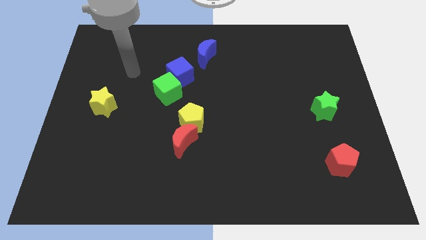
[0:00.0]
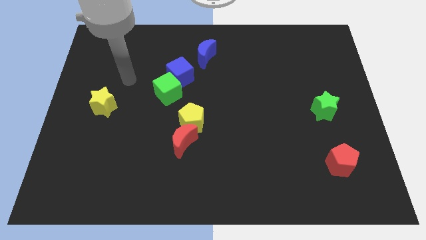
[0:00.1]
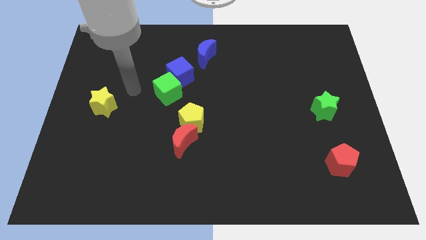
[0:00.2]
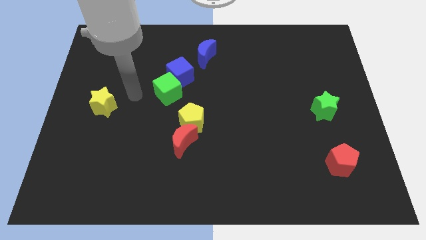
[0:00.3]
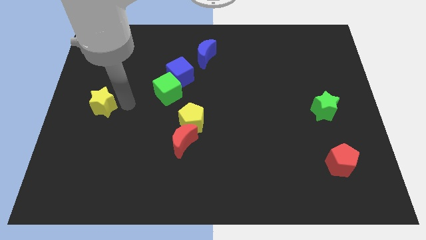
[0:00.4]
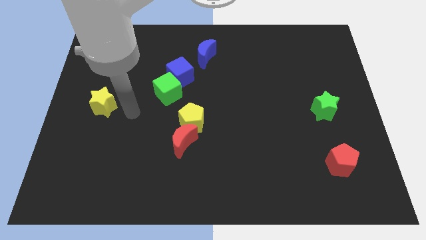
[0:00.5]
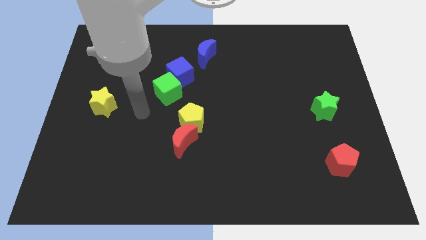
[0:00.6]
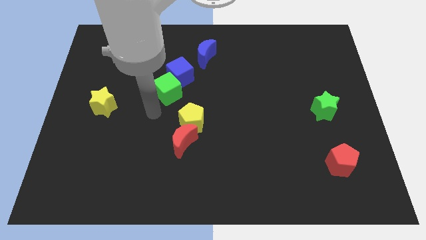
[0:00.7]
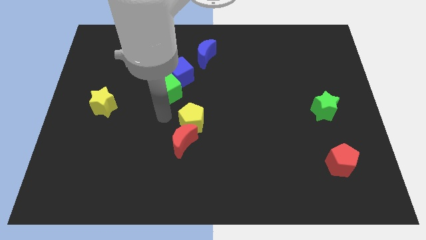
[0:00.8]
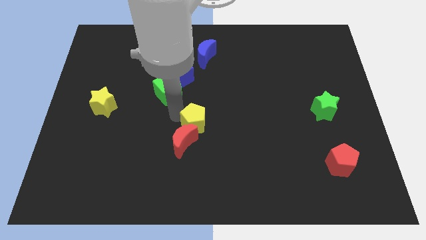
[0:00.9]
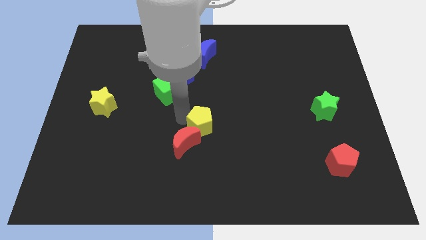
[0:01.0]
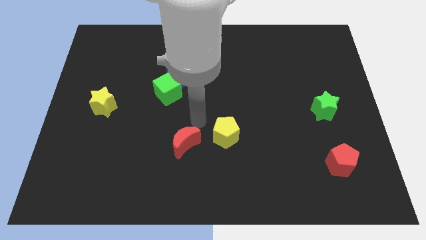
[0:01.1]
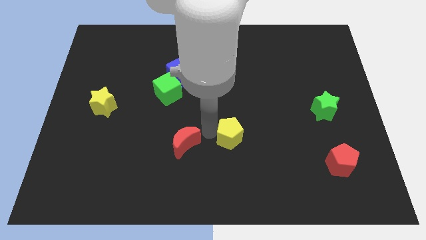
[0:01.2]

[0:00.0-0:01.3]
pull the red moon apart from the yellow pentagon

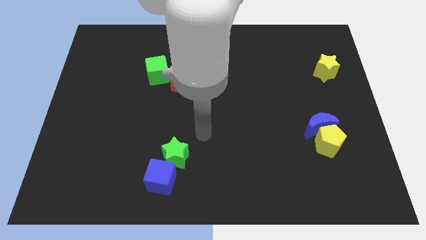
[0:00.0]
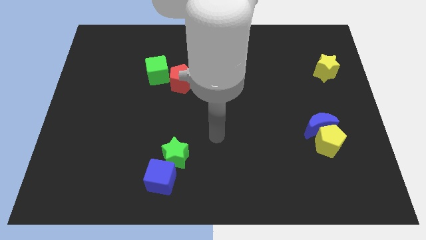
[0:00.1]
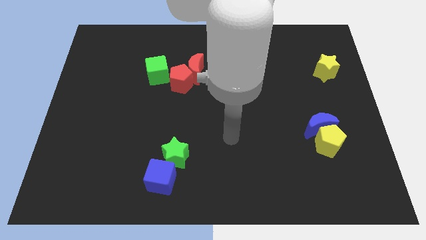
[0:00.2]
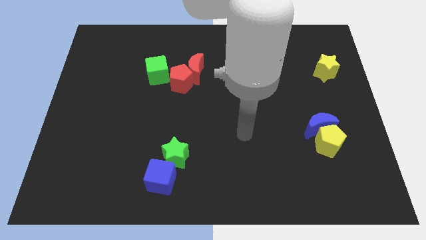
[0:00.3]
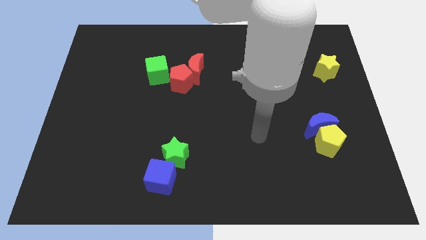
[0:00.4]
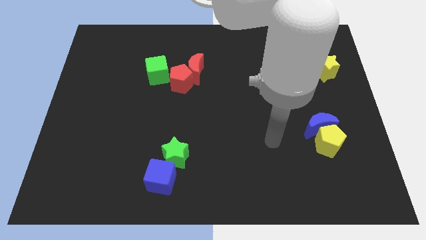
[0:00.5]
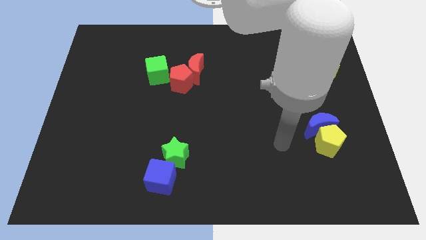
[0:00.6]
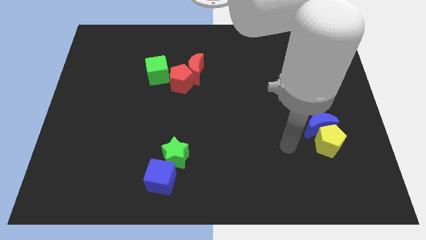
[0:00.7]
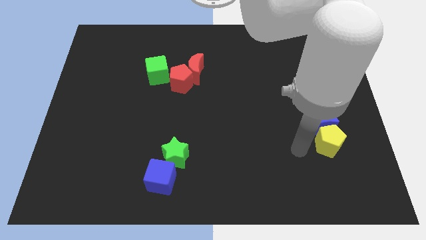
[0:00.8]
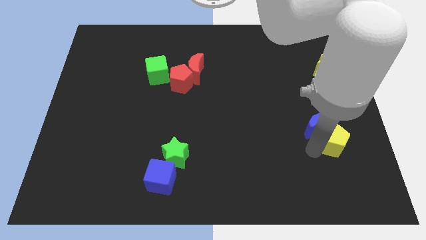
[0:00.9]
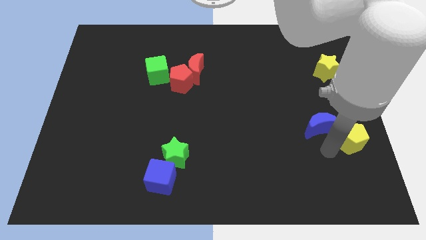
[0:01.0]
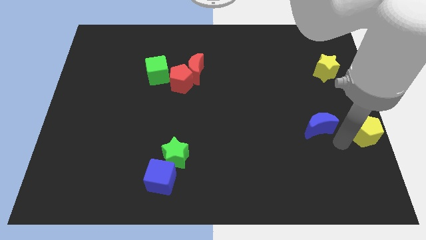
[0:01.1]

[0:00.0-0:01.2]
separate the blue moon from the yellow pentagon

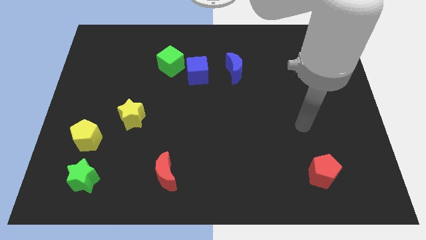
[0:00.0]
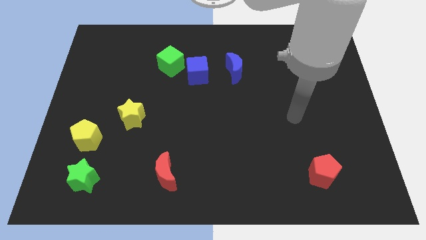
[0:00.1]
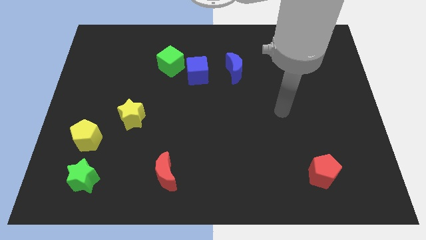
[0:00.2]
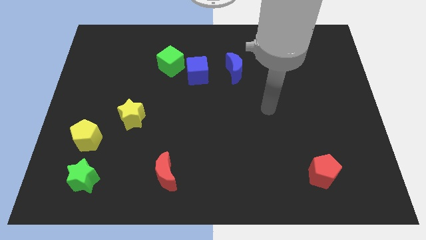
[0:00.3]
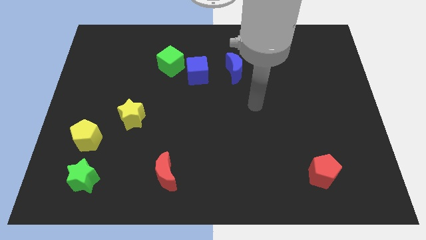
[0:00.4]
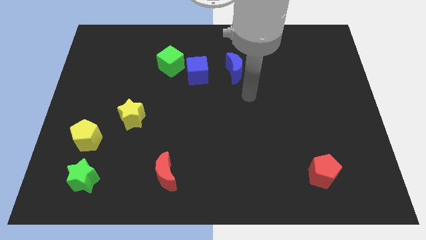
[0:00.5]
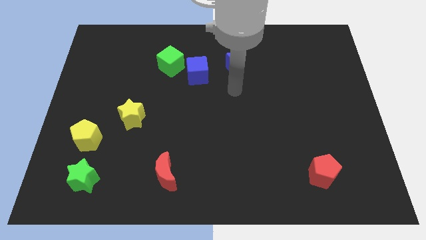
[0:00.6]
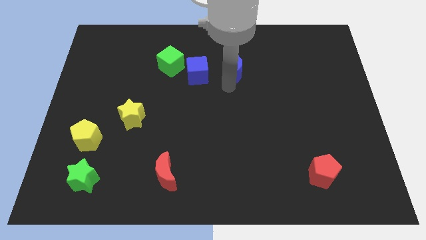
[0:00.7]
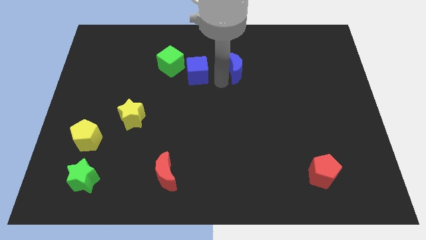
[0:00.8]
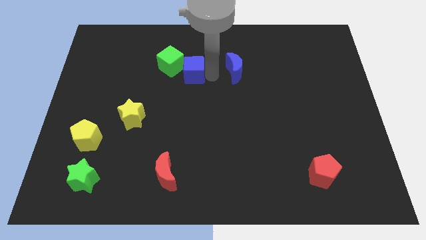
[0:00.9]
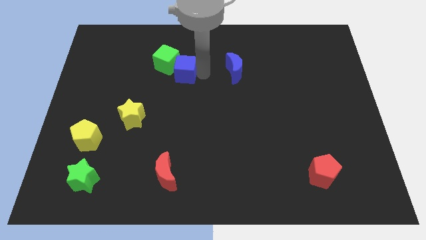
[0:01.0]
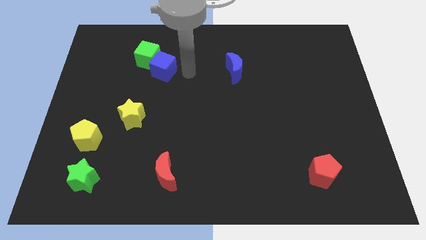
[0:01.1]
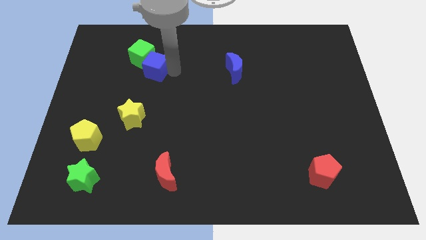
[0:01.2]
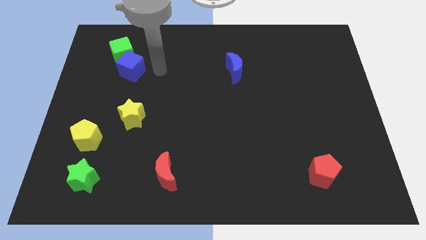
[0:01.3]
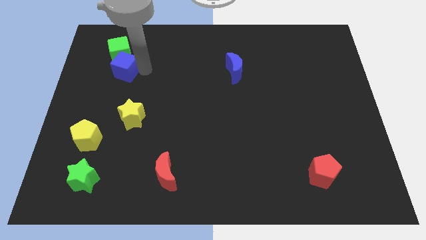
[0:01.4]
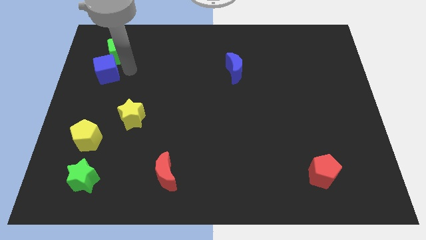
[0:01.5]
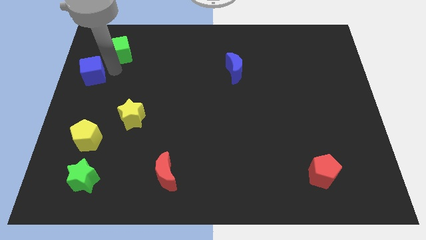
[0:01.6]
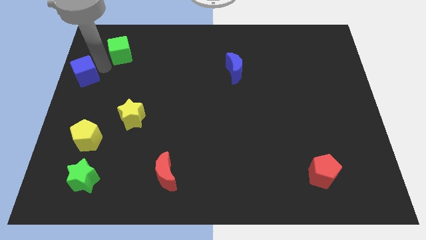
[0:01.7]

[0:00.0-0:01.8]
move the green cube away from the blue cube

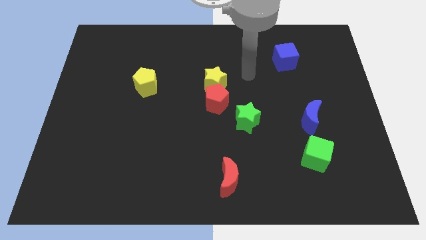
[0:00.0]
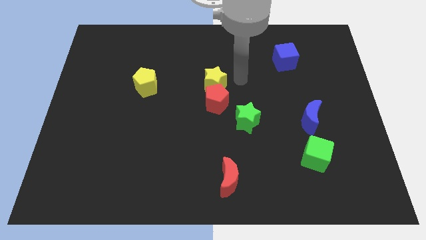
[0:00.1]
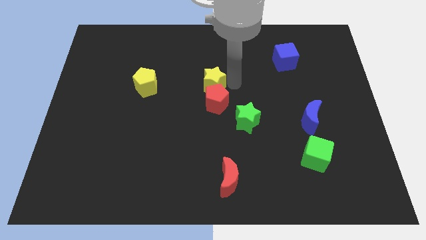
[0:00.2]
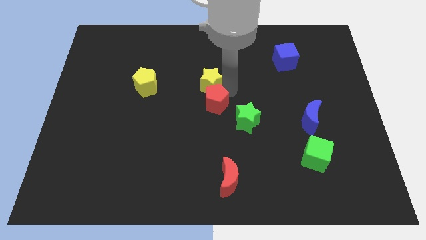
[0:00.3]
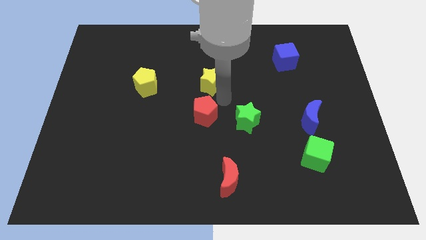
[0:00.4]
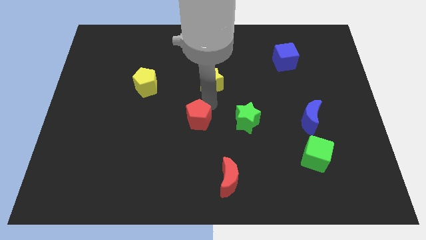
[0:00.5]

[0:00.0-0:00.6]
move the yellow star away from the red pentagon

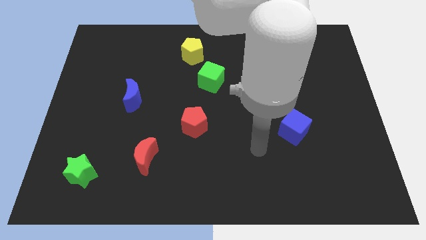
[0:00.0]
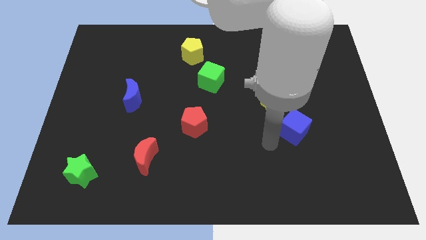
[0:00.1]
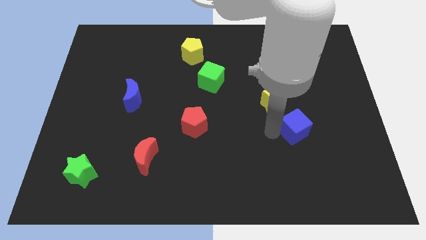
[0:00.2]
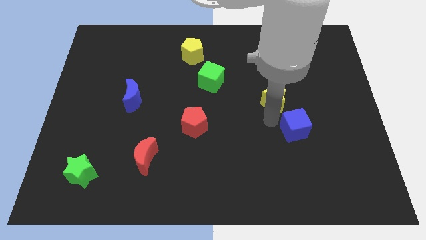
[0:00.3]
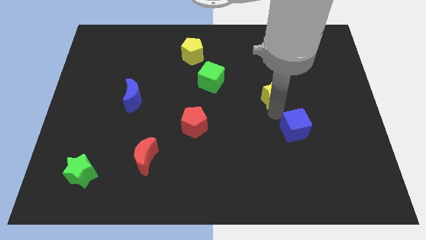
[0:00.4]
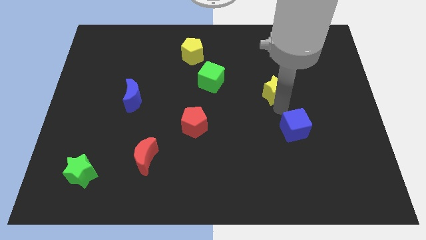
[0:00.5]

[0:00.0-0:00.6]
separate the blue cube from the yellow star

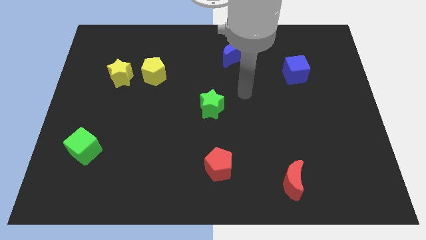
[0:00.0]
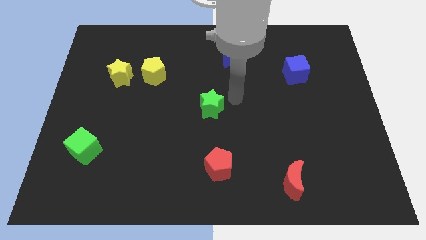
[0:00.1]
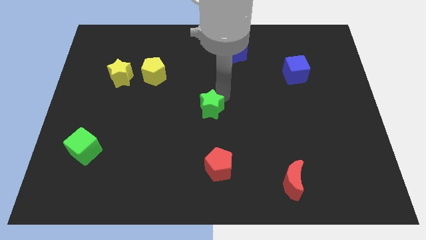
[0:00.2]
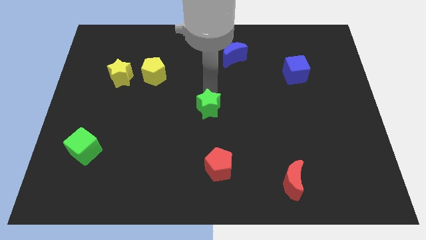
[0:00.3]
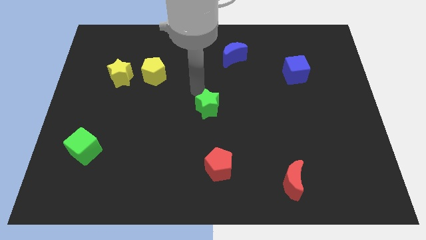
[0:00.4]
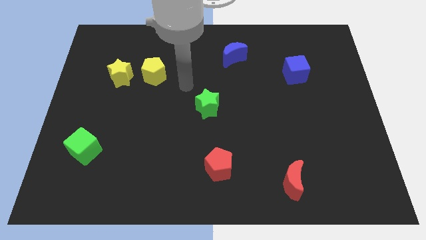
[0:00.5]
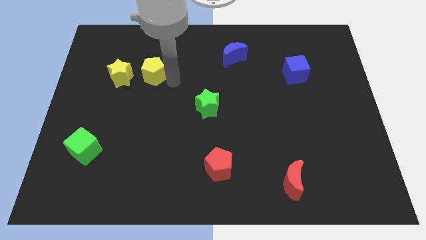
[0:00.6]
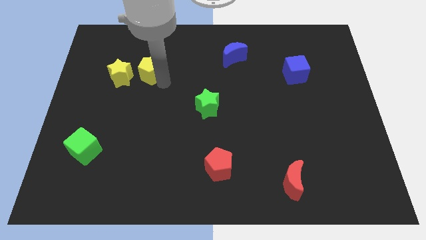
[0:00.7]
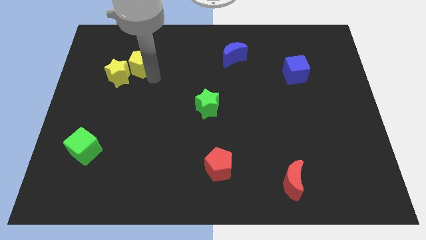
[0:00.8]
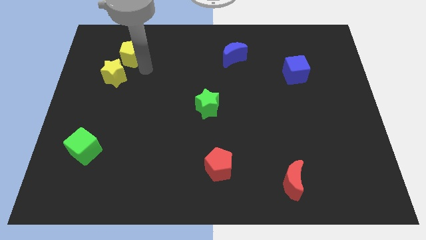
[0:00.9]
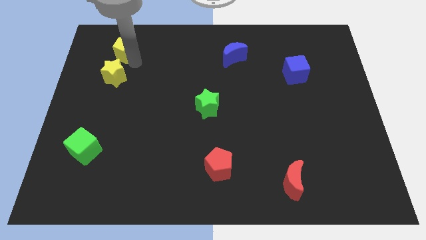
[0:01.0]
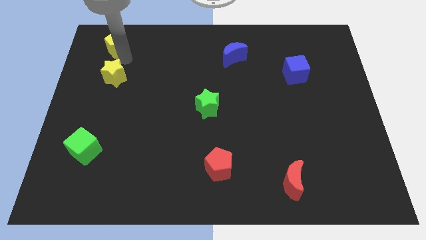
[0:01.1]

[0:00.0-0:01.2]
pull the yellow star apart from the yellow pentagon

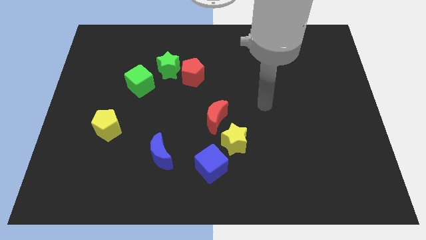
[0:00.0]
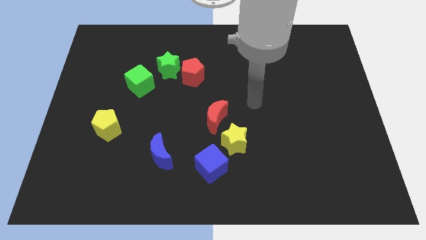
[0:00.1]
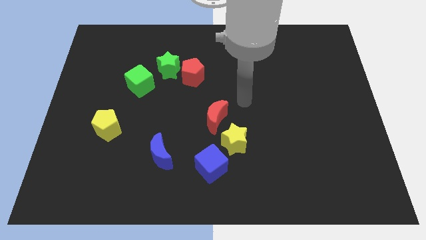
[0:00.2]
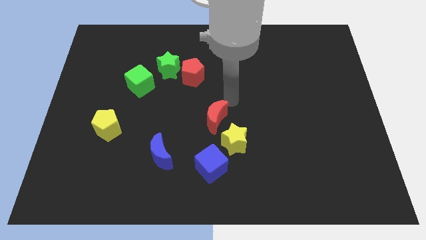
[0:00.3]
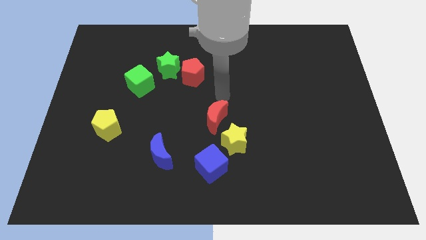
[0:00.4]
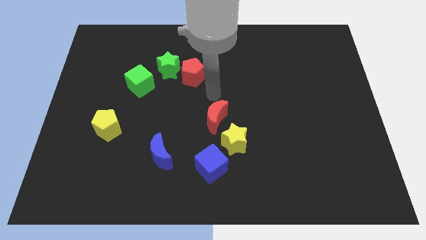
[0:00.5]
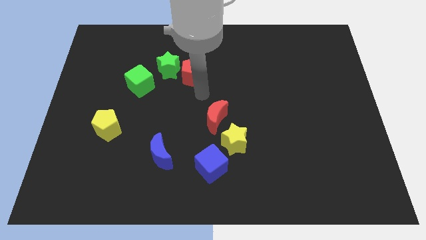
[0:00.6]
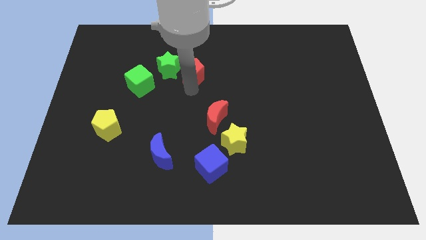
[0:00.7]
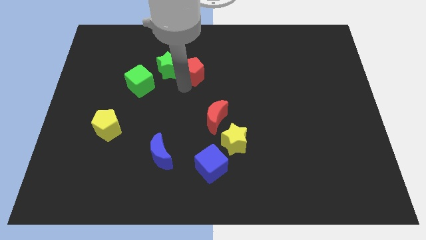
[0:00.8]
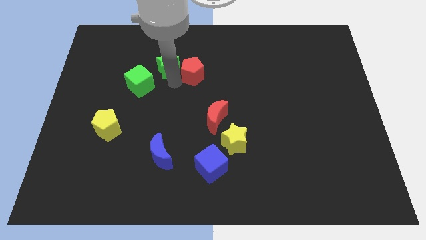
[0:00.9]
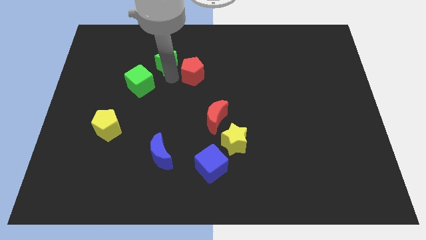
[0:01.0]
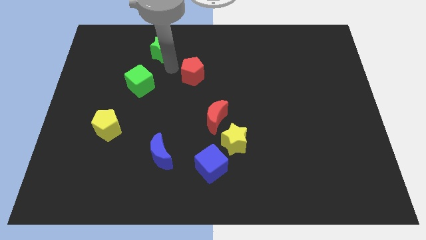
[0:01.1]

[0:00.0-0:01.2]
move the red pentagon away from the green star

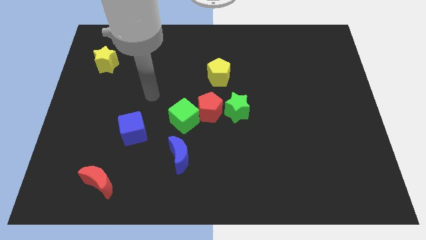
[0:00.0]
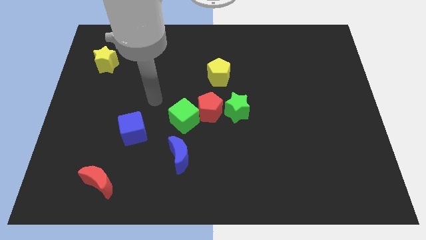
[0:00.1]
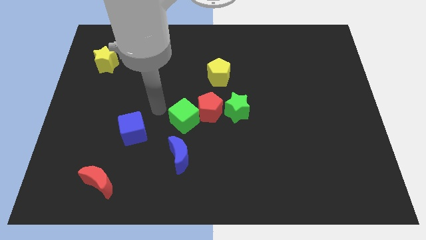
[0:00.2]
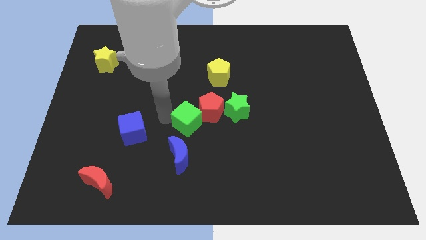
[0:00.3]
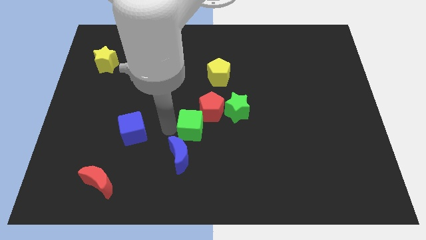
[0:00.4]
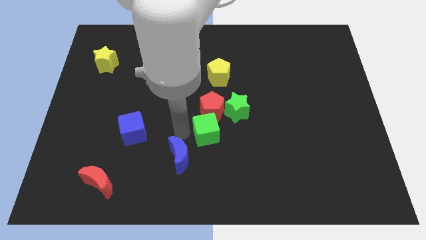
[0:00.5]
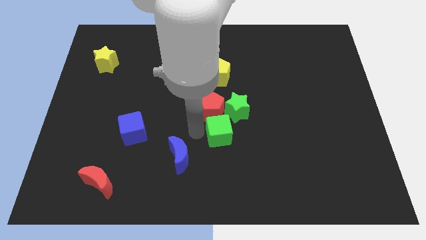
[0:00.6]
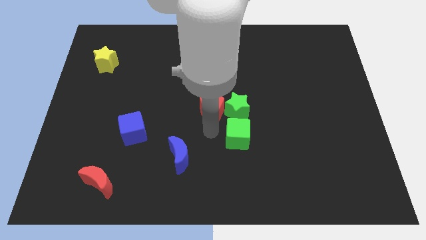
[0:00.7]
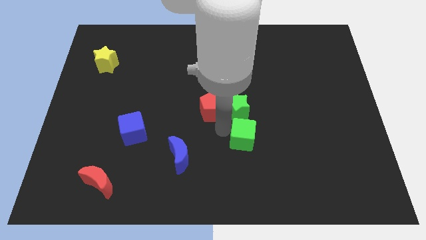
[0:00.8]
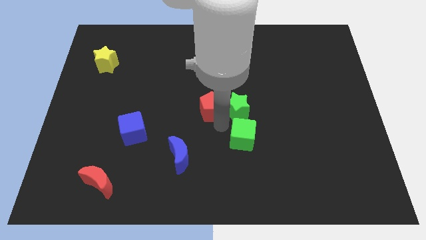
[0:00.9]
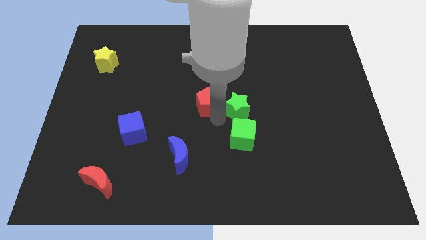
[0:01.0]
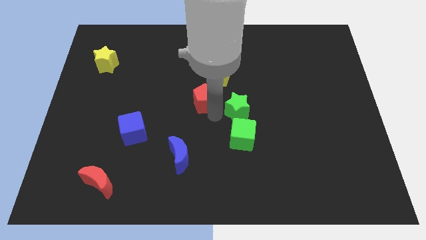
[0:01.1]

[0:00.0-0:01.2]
pull the red pentagon apart from the green cube and green star
